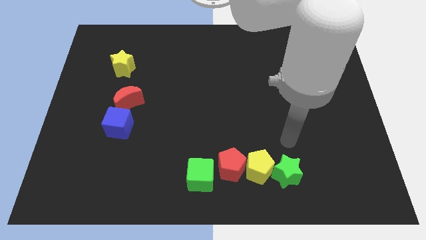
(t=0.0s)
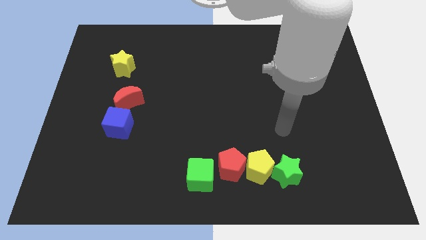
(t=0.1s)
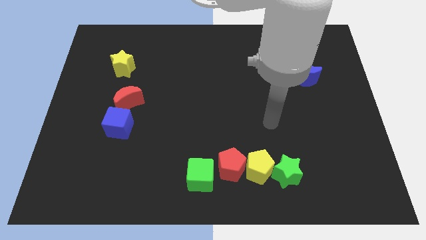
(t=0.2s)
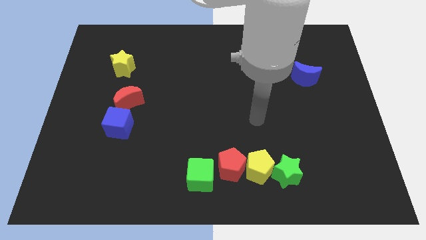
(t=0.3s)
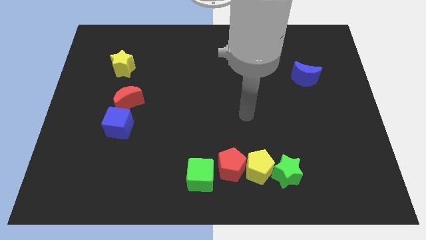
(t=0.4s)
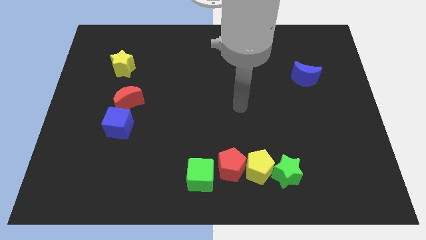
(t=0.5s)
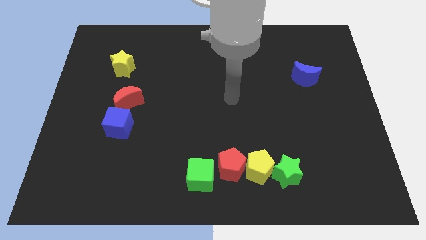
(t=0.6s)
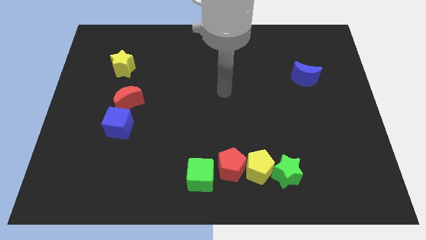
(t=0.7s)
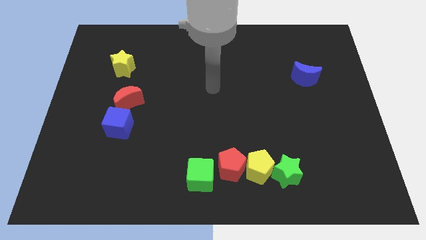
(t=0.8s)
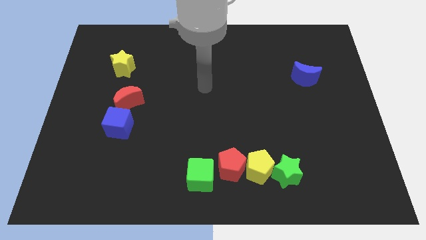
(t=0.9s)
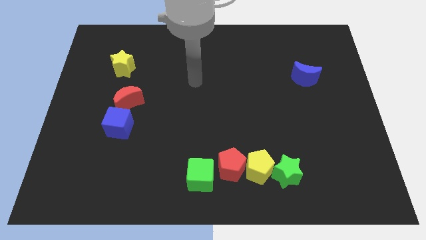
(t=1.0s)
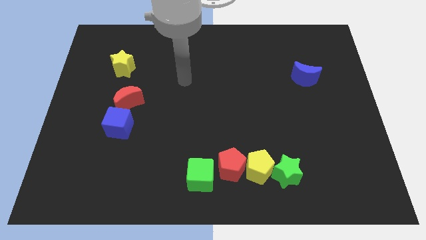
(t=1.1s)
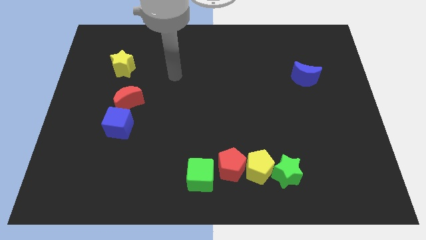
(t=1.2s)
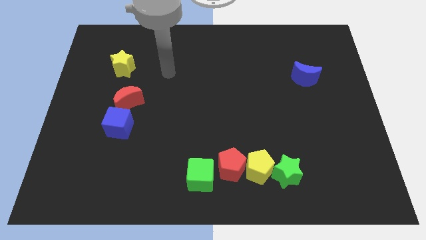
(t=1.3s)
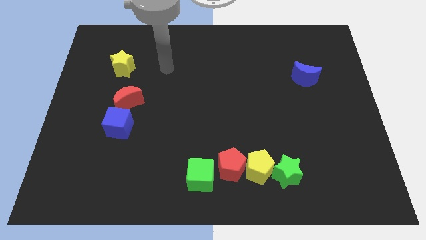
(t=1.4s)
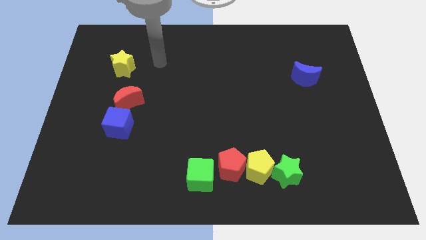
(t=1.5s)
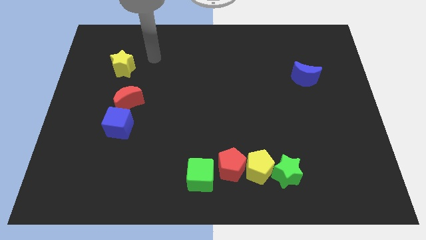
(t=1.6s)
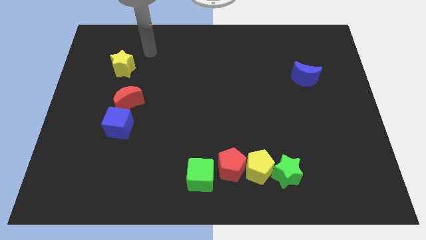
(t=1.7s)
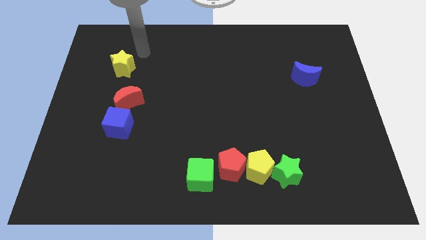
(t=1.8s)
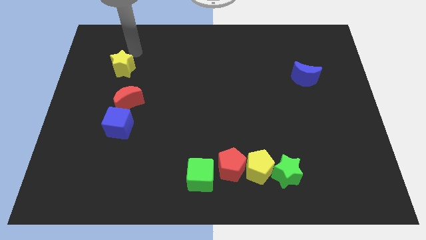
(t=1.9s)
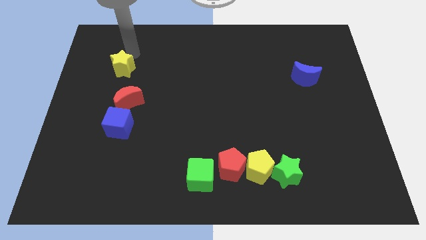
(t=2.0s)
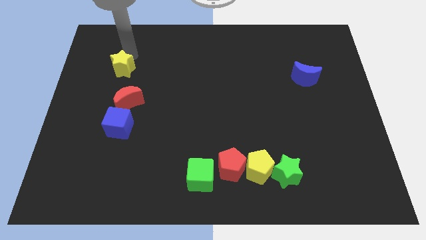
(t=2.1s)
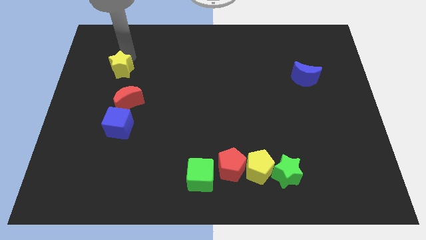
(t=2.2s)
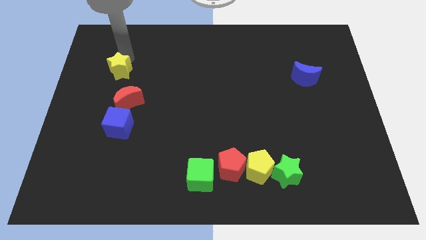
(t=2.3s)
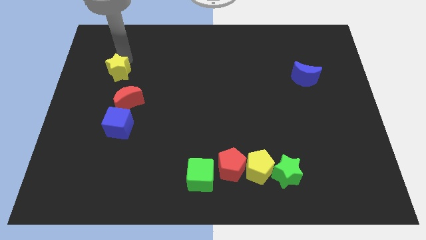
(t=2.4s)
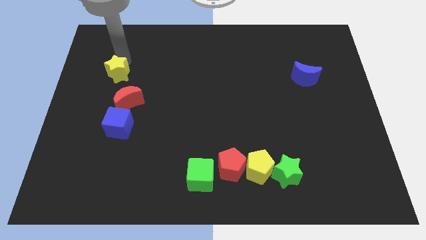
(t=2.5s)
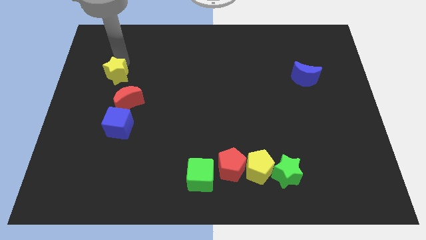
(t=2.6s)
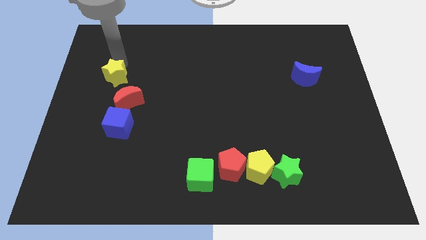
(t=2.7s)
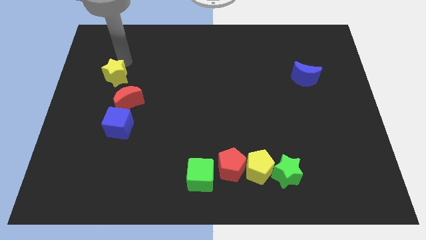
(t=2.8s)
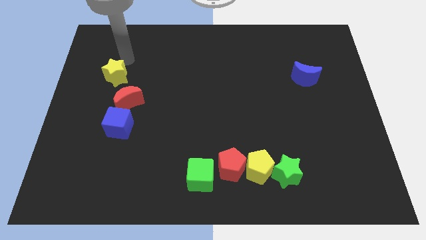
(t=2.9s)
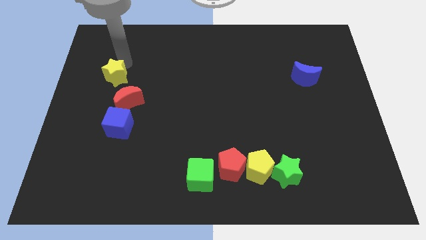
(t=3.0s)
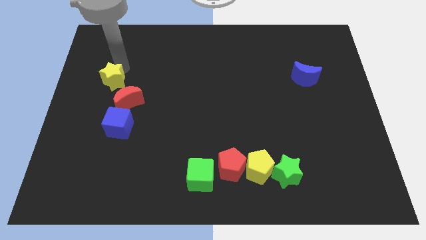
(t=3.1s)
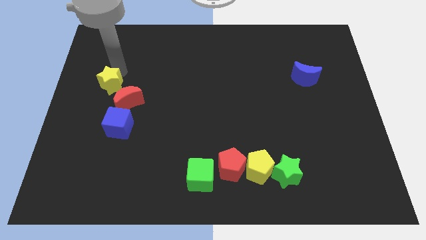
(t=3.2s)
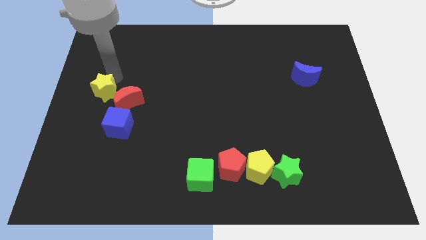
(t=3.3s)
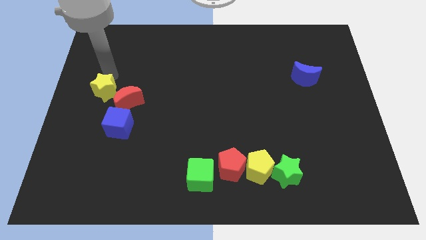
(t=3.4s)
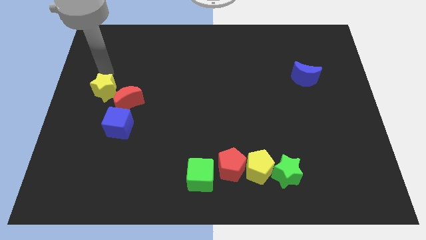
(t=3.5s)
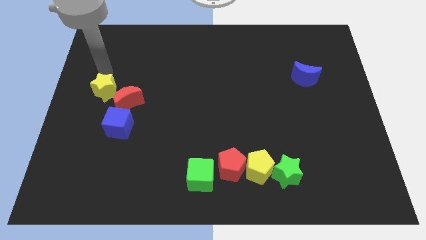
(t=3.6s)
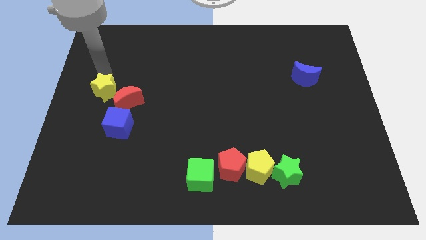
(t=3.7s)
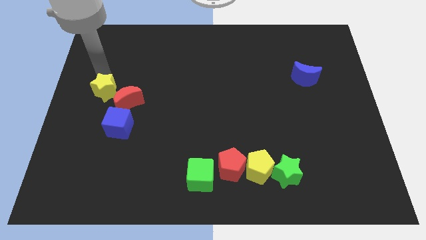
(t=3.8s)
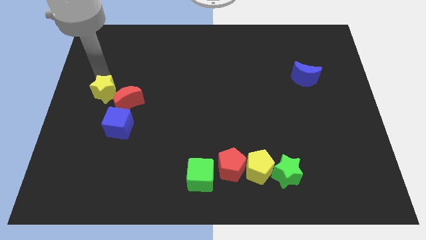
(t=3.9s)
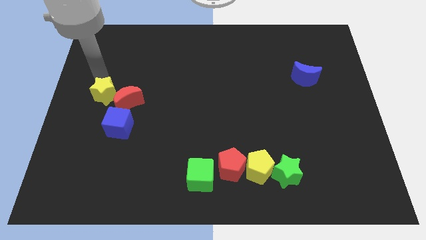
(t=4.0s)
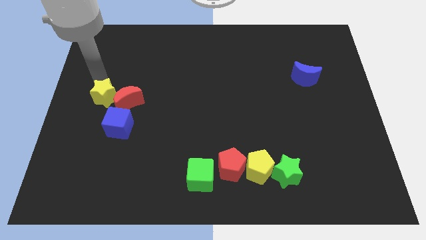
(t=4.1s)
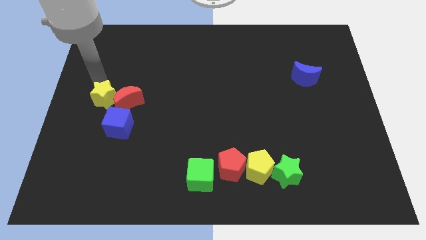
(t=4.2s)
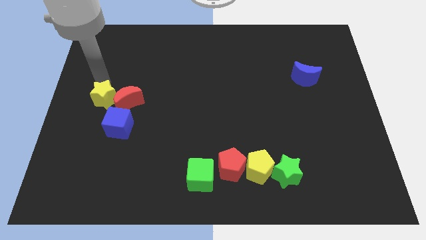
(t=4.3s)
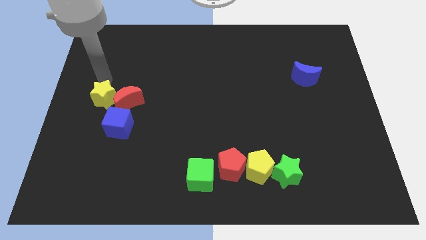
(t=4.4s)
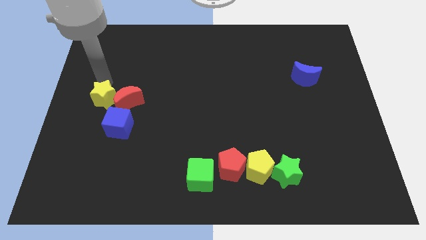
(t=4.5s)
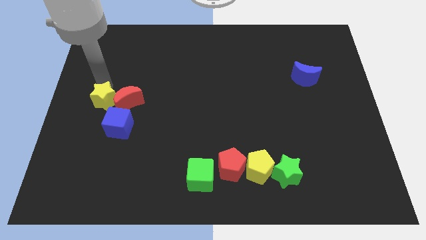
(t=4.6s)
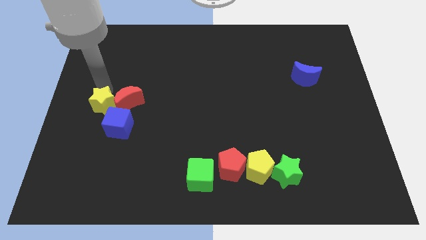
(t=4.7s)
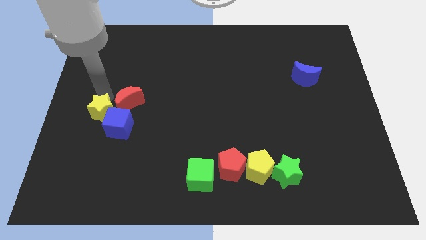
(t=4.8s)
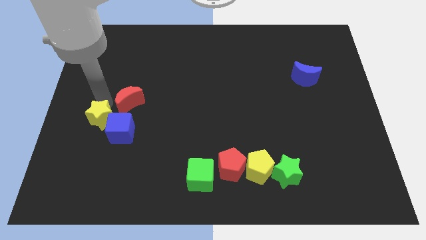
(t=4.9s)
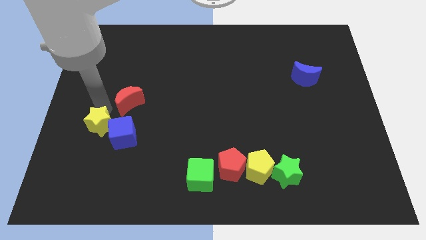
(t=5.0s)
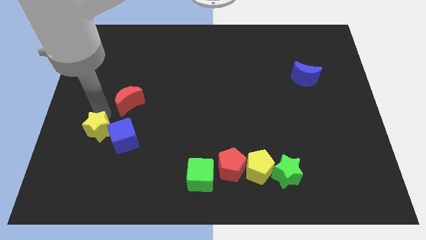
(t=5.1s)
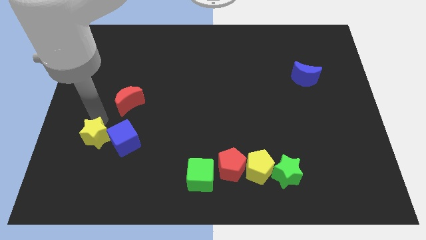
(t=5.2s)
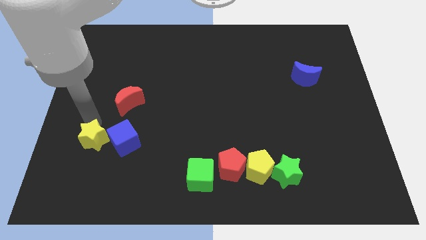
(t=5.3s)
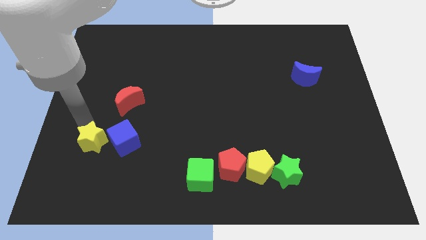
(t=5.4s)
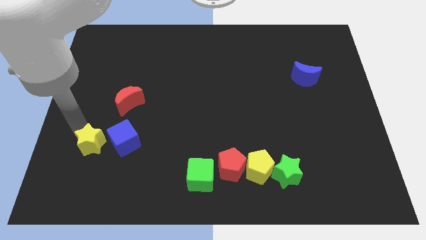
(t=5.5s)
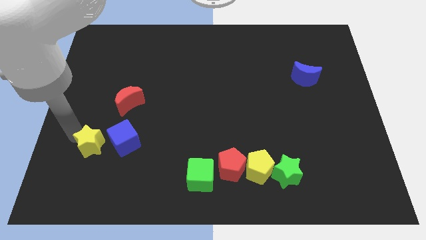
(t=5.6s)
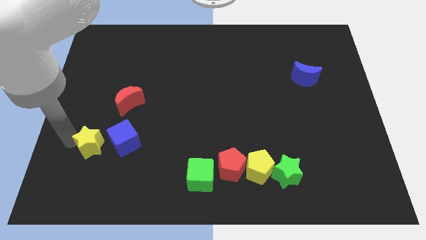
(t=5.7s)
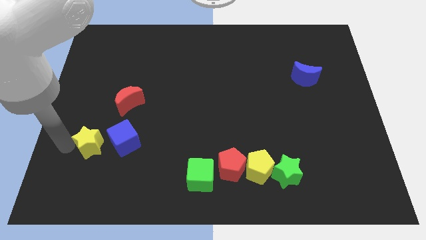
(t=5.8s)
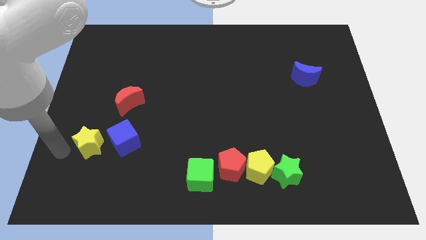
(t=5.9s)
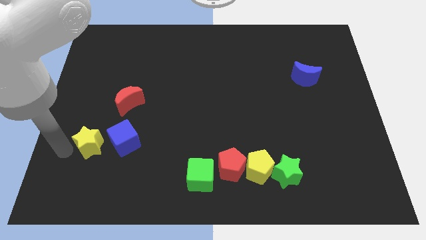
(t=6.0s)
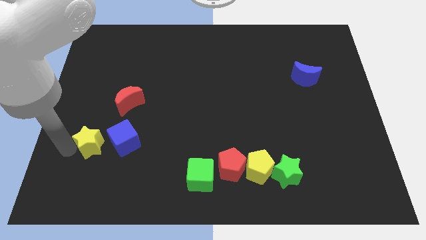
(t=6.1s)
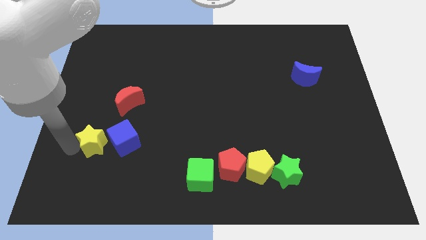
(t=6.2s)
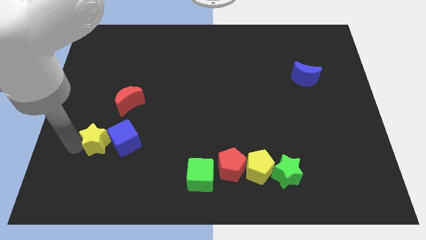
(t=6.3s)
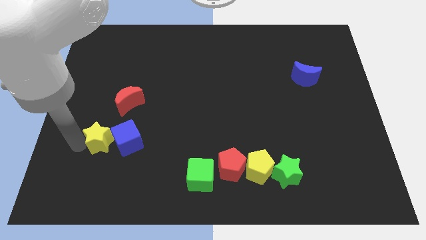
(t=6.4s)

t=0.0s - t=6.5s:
push the yellow star to the bottom side of the red moon
